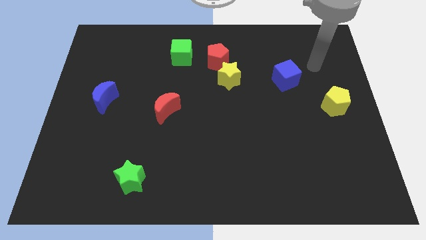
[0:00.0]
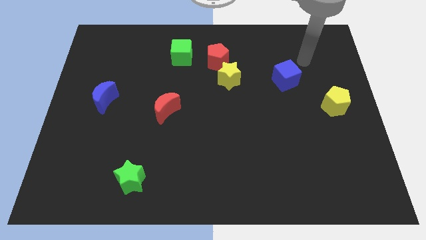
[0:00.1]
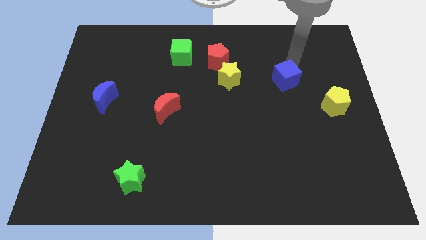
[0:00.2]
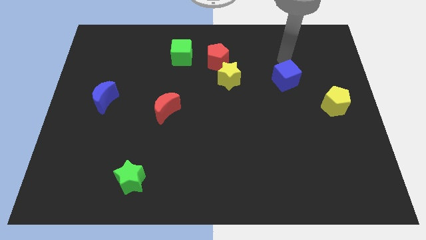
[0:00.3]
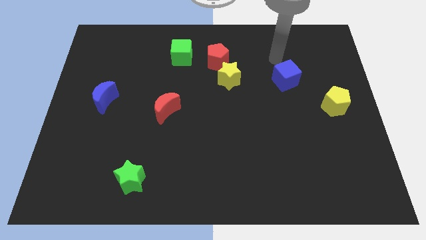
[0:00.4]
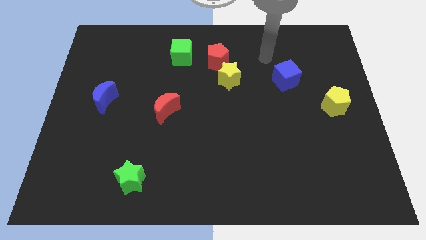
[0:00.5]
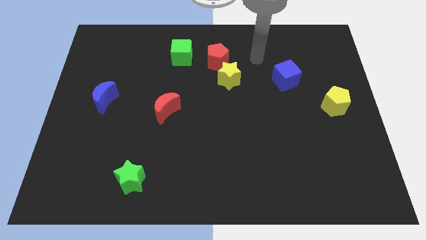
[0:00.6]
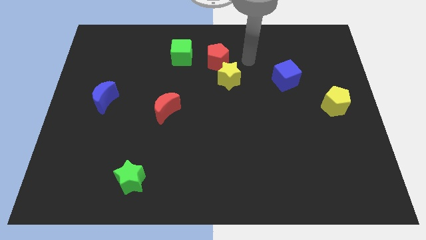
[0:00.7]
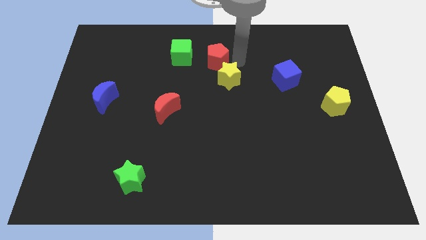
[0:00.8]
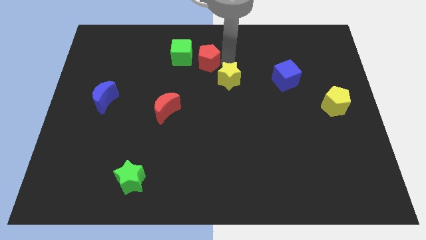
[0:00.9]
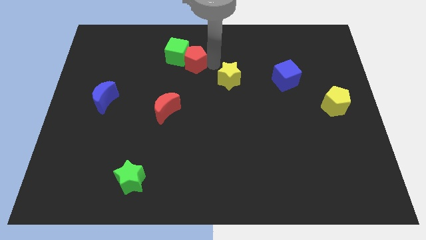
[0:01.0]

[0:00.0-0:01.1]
pull the yellow star apart from the red pentagon

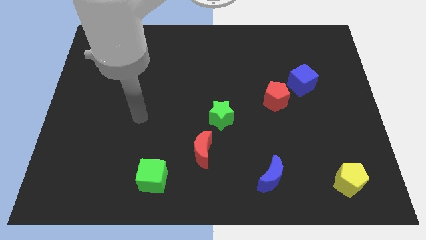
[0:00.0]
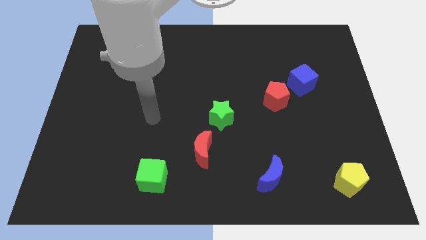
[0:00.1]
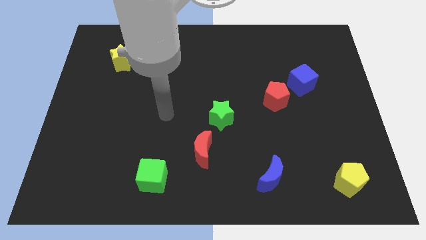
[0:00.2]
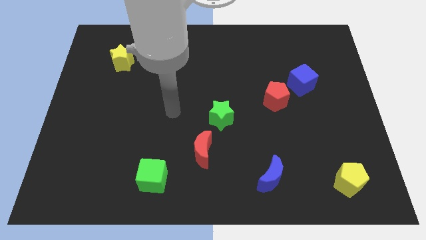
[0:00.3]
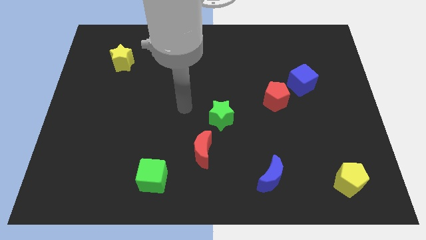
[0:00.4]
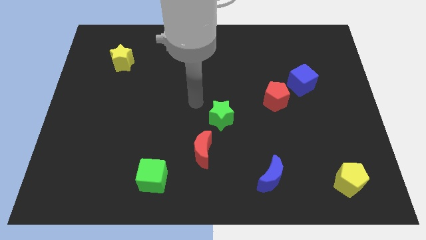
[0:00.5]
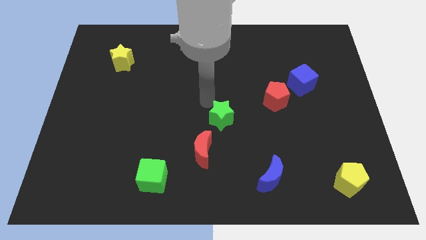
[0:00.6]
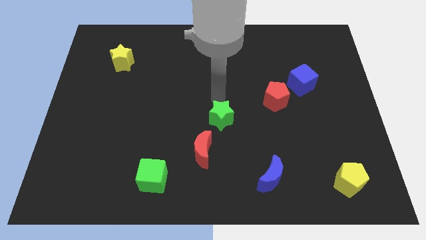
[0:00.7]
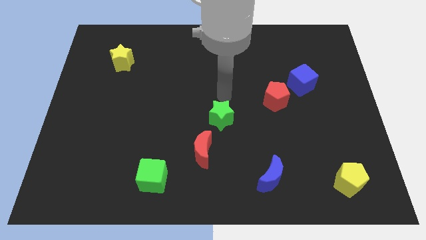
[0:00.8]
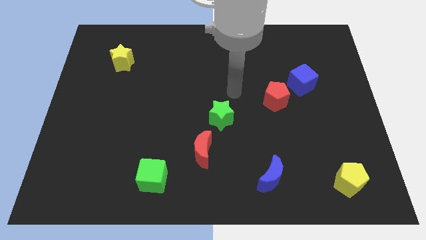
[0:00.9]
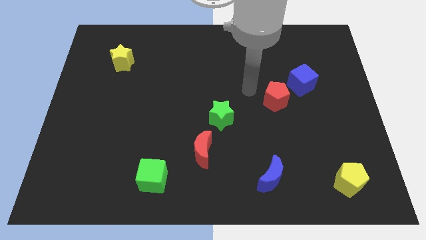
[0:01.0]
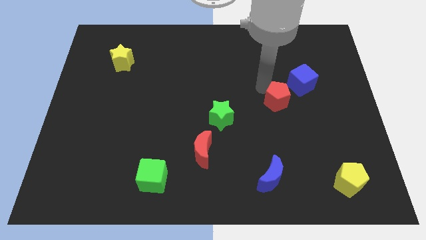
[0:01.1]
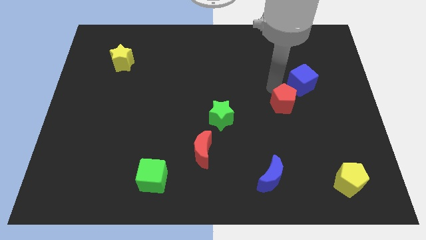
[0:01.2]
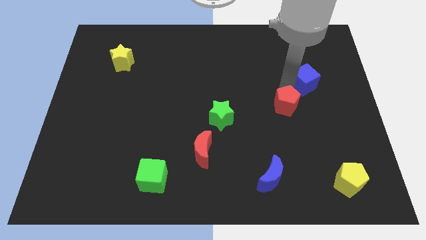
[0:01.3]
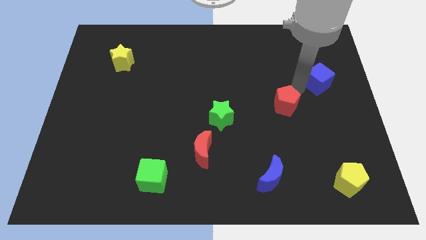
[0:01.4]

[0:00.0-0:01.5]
pull the red pentagon apart from the blue cube

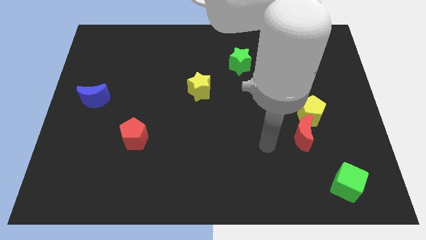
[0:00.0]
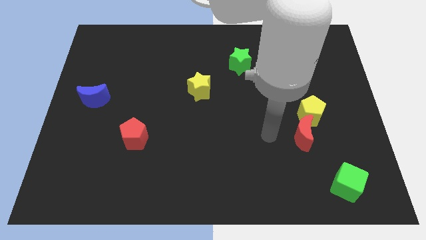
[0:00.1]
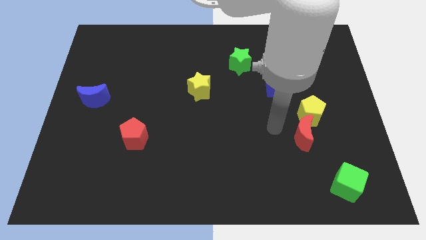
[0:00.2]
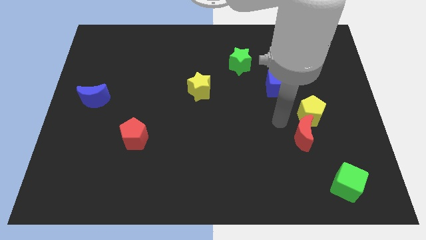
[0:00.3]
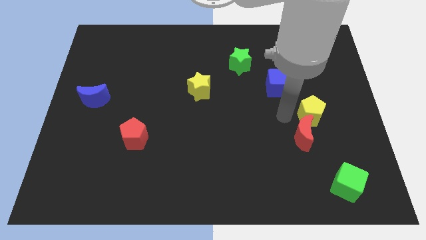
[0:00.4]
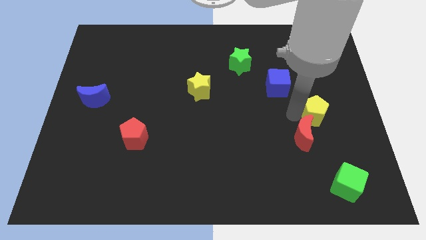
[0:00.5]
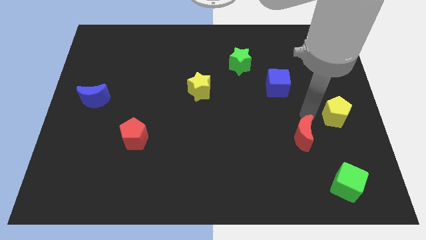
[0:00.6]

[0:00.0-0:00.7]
pull the red moon apart from the yellow pentagon

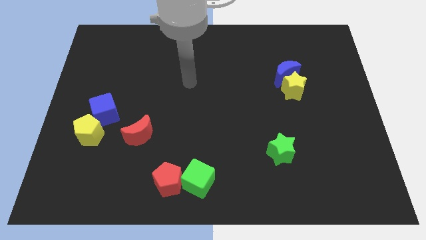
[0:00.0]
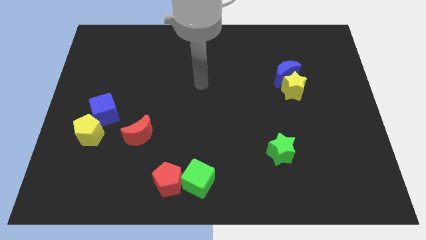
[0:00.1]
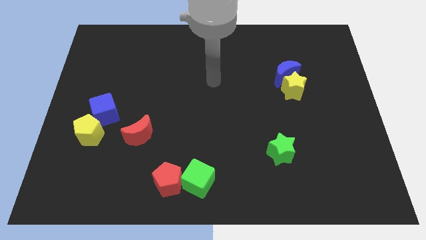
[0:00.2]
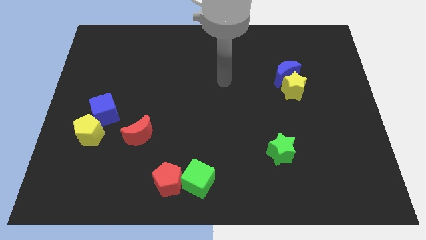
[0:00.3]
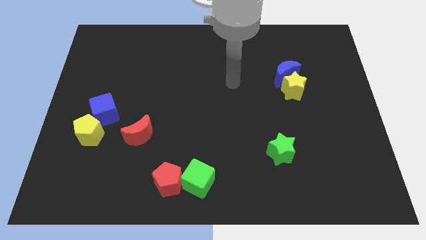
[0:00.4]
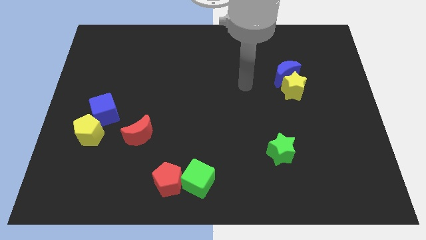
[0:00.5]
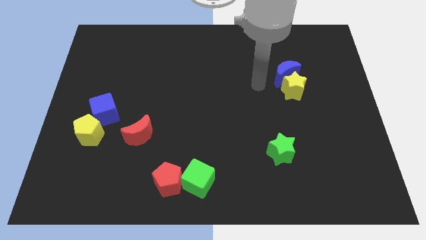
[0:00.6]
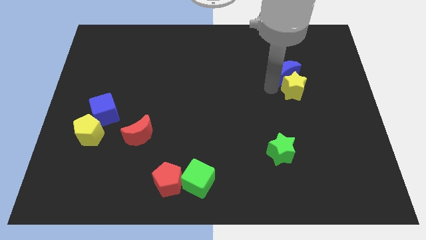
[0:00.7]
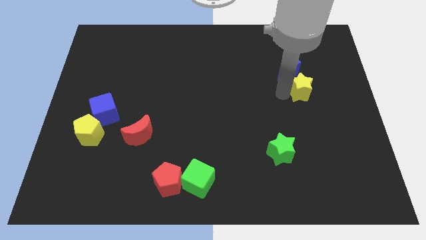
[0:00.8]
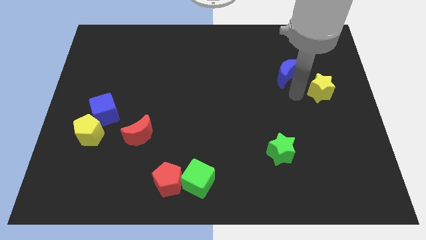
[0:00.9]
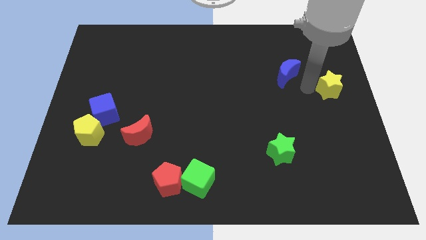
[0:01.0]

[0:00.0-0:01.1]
move the blue moon away from the yellow star

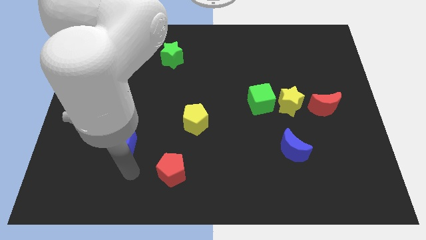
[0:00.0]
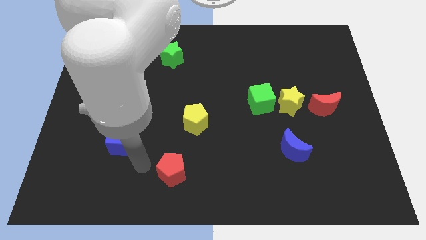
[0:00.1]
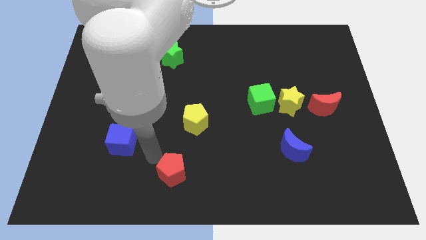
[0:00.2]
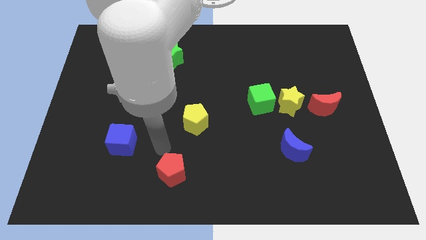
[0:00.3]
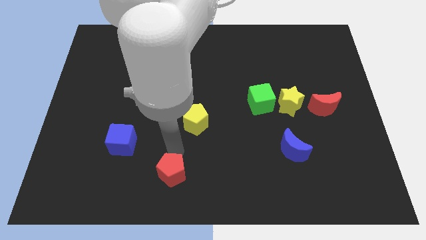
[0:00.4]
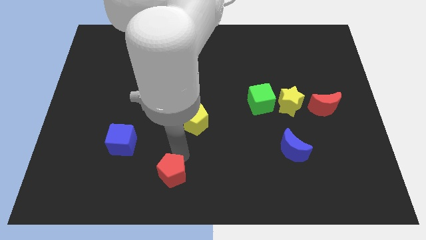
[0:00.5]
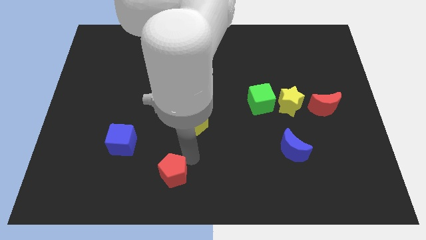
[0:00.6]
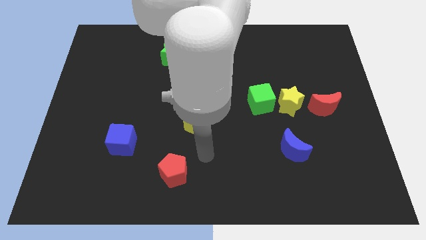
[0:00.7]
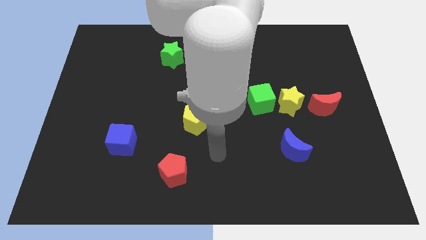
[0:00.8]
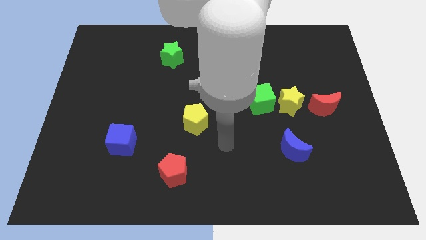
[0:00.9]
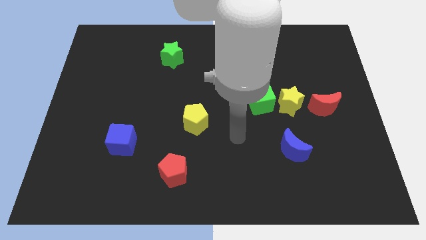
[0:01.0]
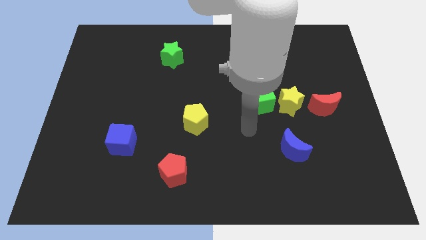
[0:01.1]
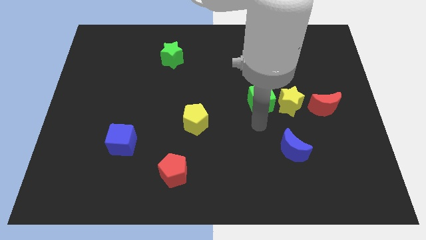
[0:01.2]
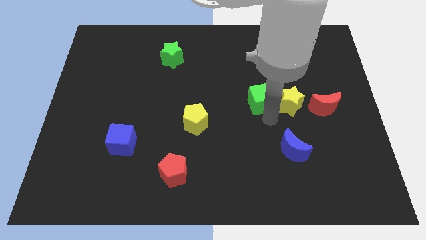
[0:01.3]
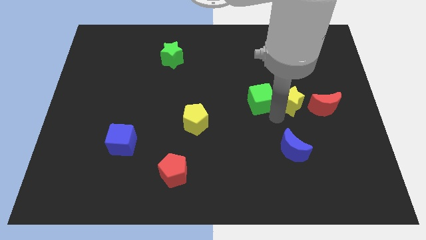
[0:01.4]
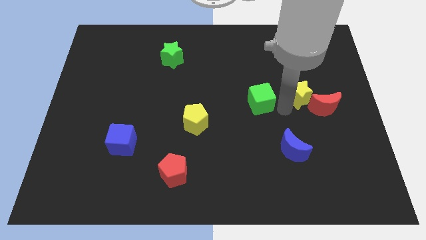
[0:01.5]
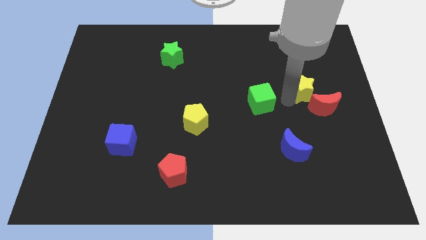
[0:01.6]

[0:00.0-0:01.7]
move the green cube away from the yellow star

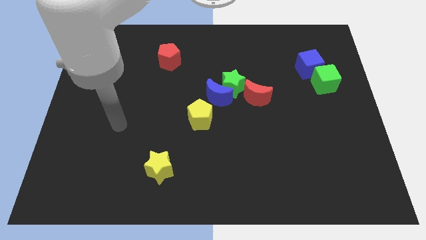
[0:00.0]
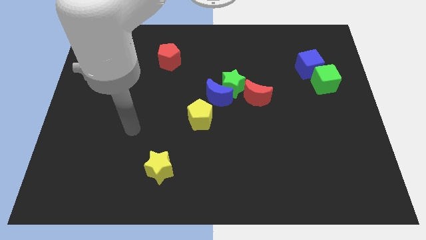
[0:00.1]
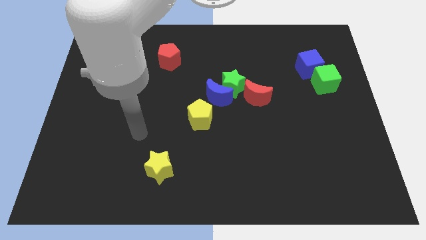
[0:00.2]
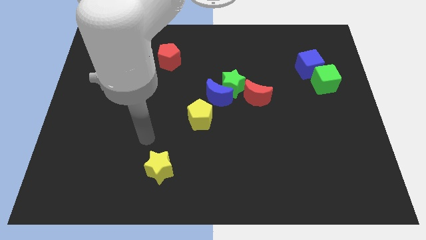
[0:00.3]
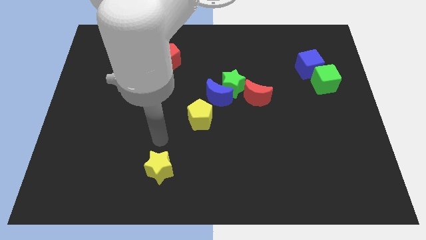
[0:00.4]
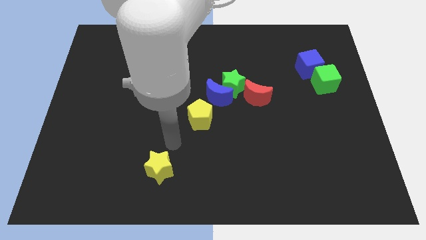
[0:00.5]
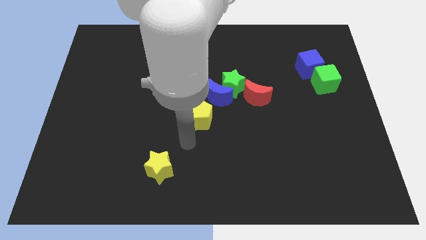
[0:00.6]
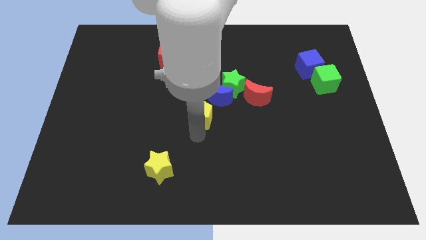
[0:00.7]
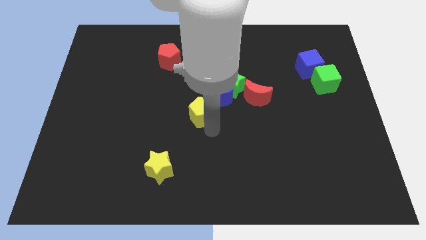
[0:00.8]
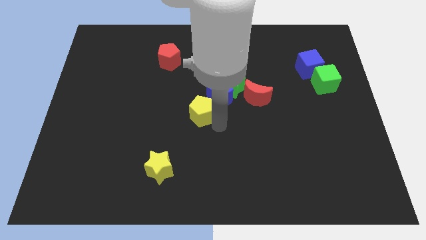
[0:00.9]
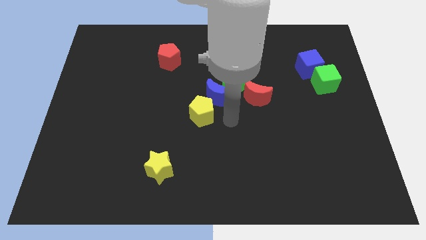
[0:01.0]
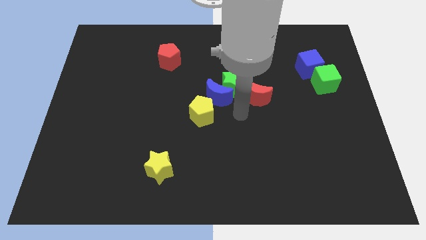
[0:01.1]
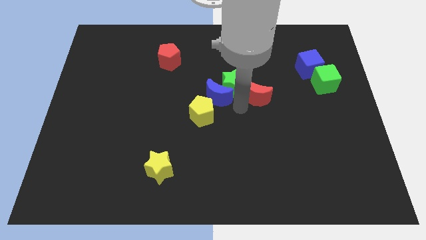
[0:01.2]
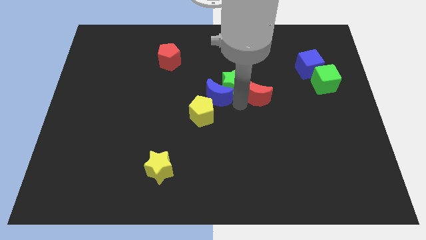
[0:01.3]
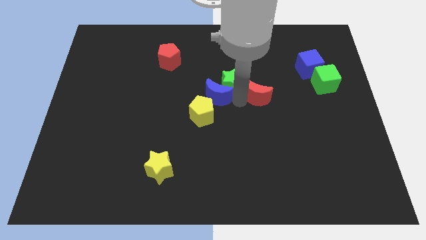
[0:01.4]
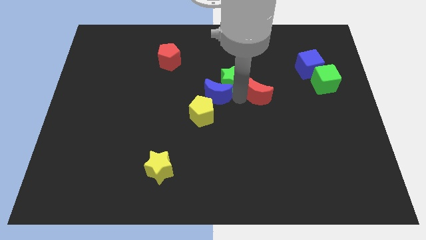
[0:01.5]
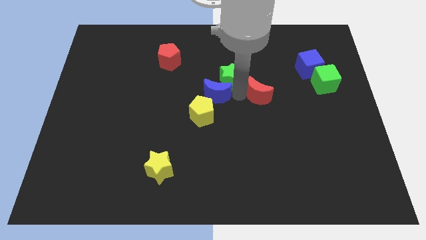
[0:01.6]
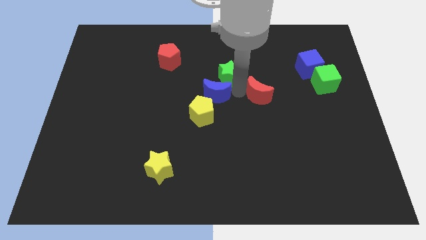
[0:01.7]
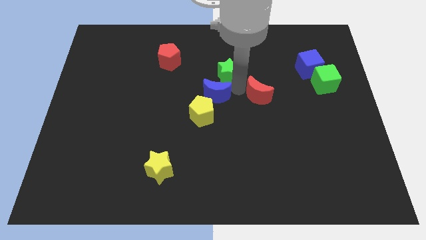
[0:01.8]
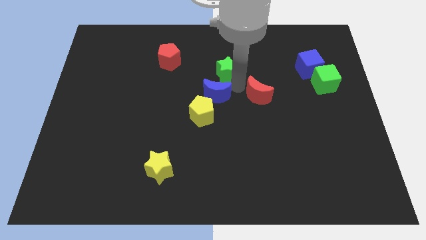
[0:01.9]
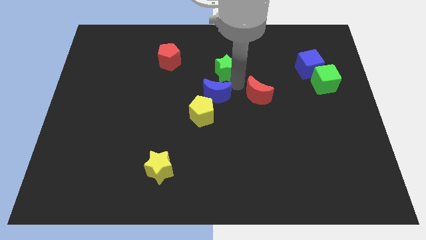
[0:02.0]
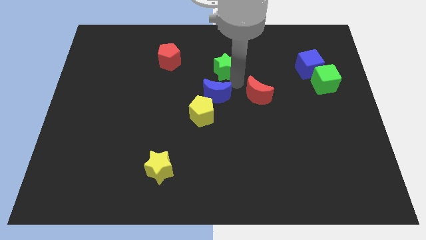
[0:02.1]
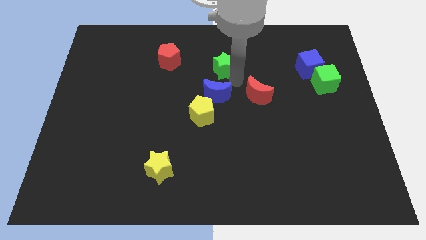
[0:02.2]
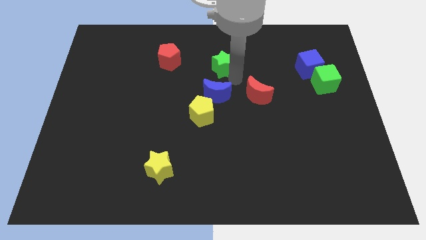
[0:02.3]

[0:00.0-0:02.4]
separate the green star from the blue moon and red moon

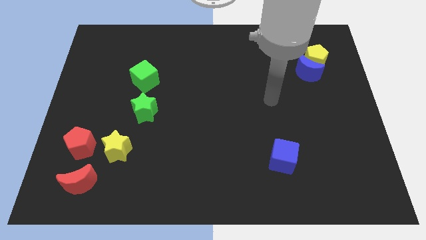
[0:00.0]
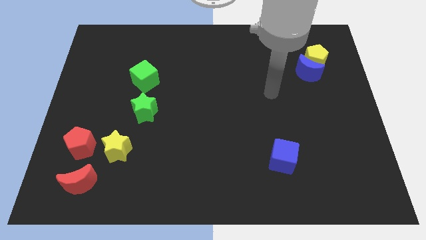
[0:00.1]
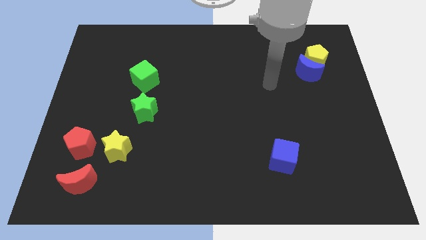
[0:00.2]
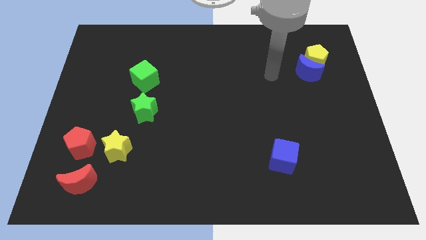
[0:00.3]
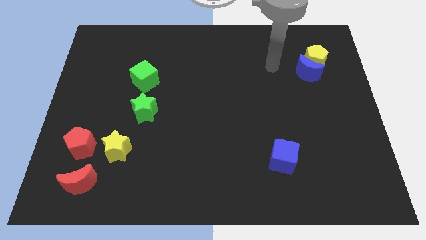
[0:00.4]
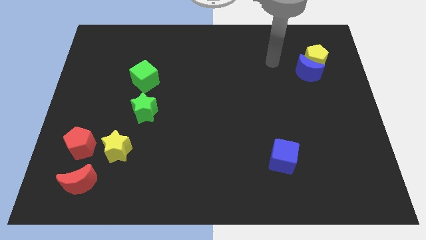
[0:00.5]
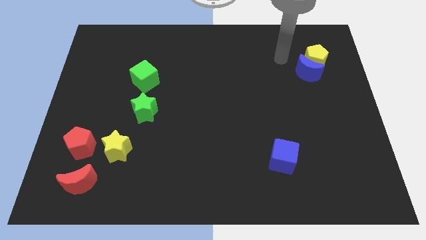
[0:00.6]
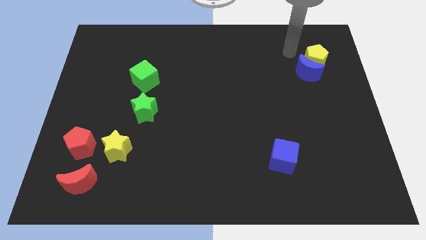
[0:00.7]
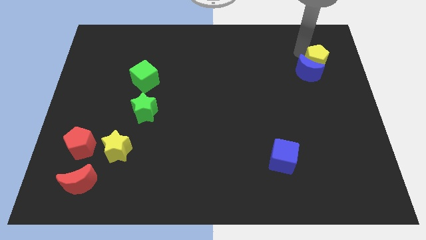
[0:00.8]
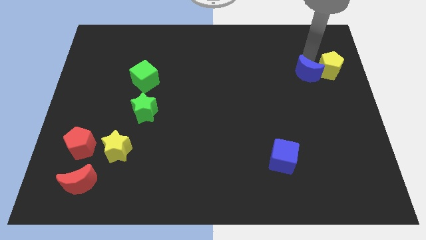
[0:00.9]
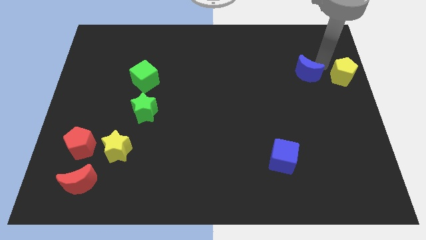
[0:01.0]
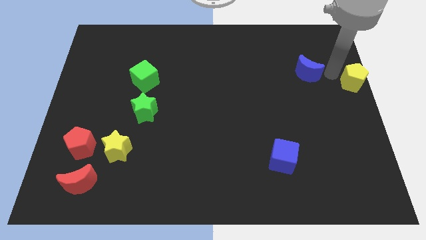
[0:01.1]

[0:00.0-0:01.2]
pull the blue moon apart from the yellow pentagon
